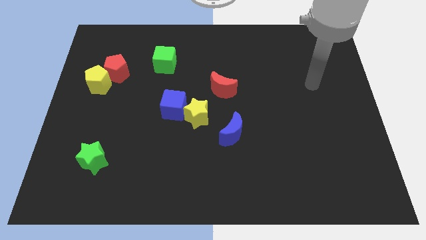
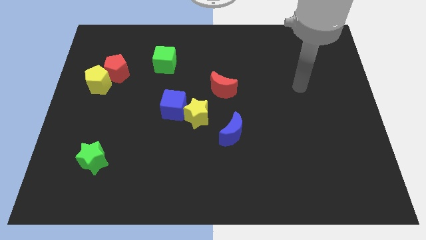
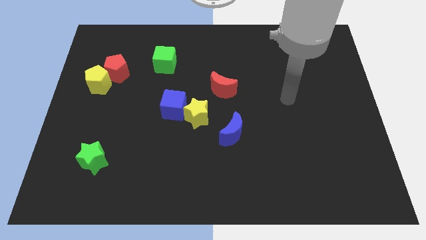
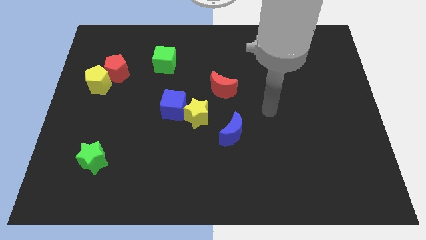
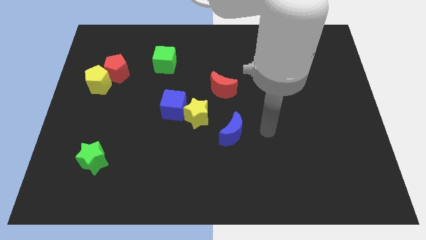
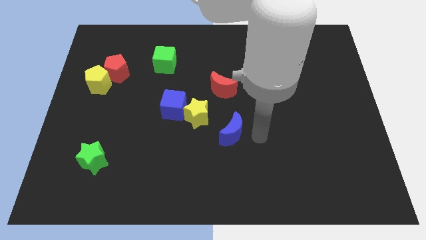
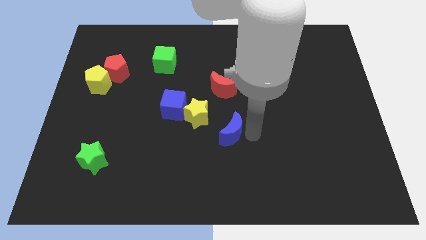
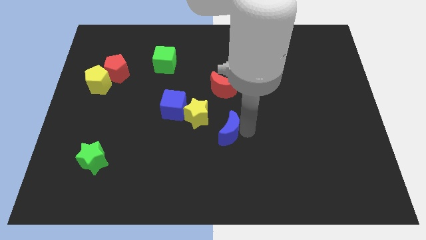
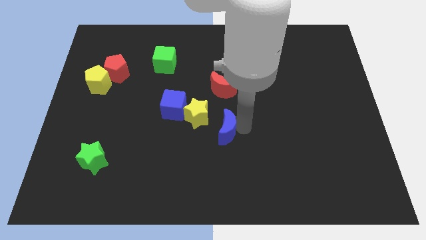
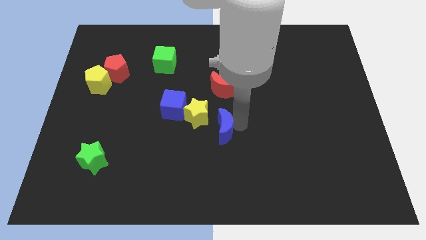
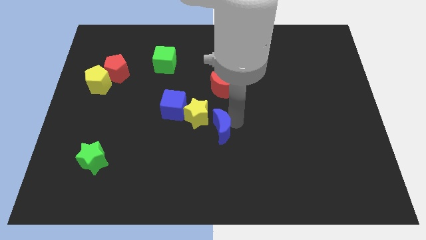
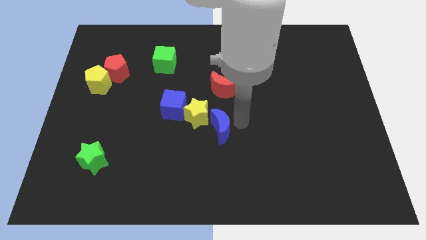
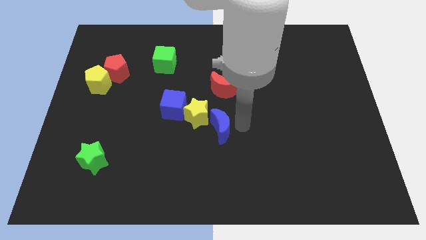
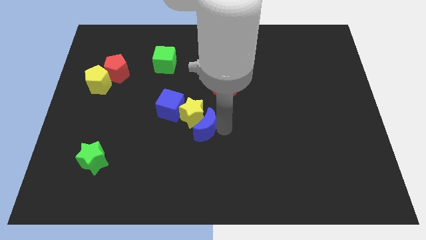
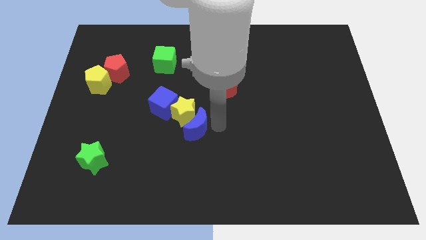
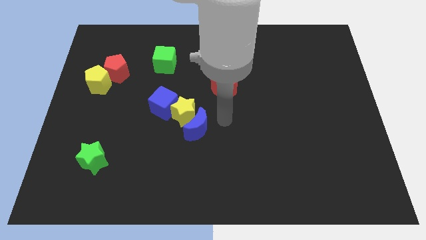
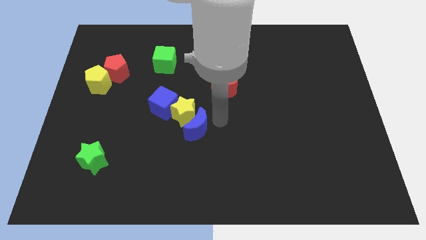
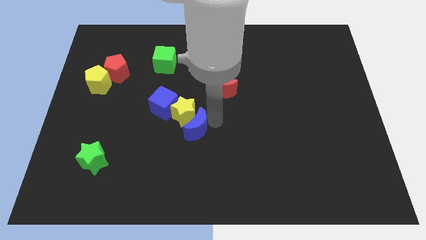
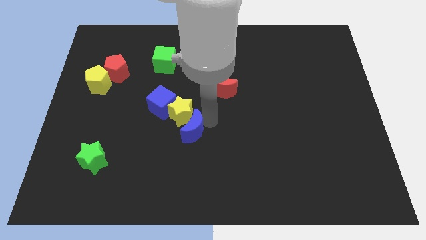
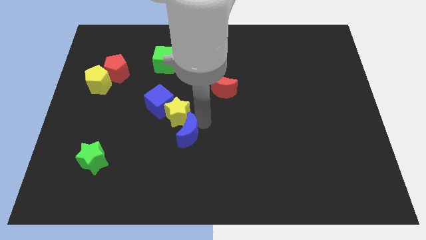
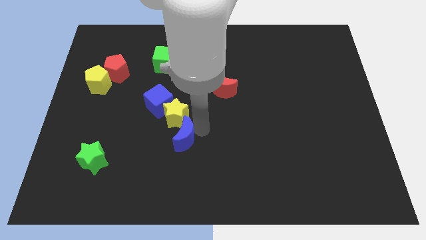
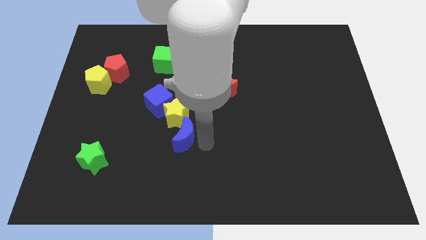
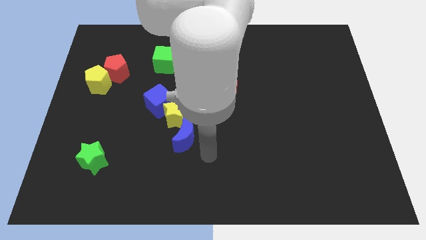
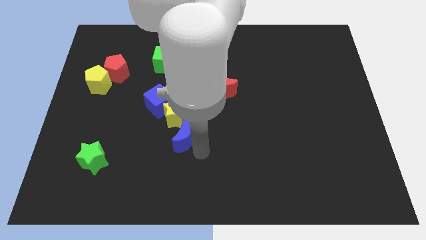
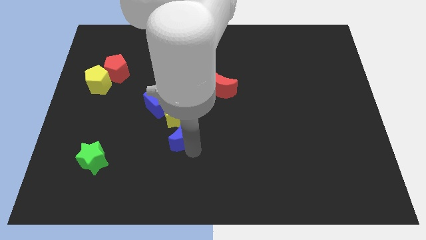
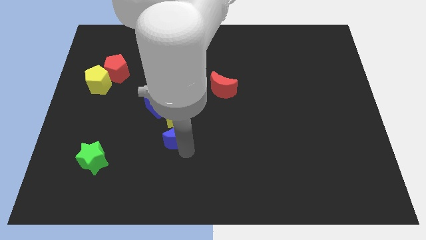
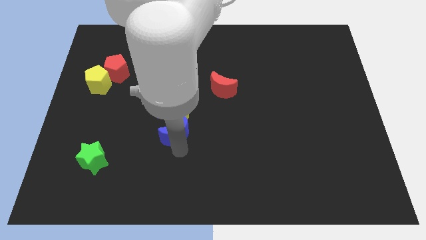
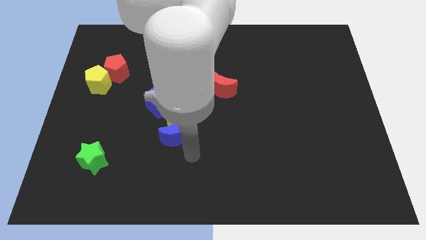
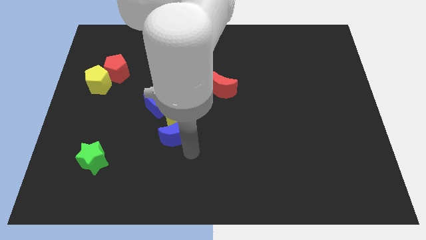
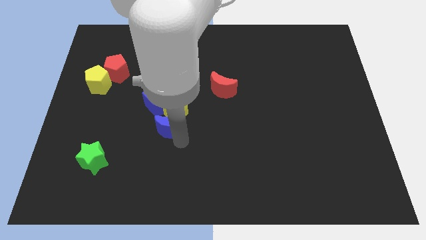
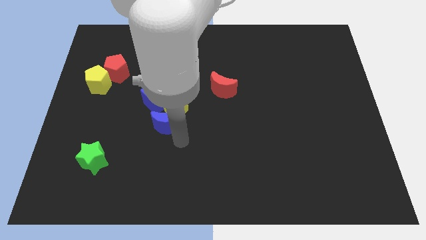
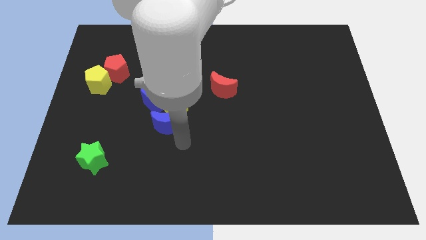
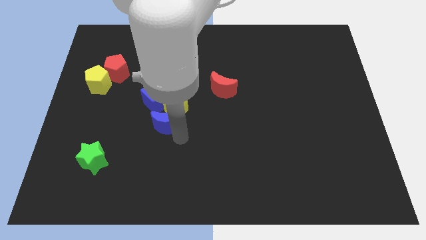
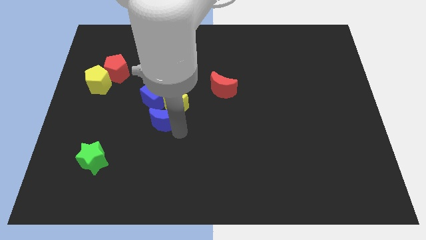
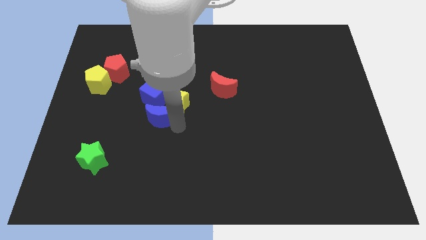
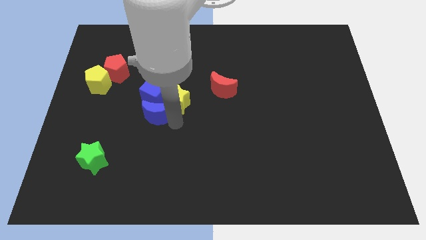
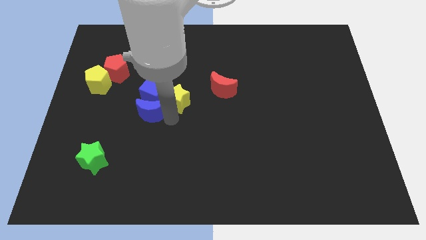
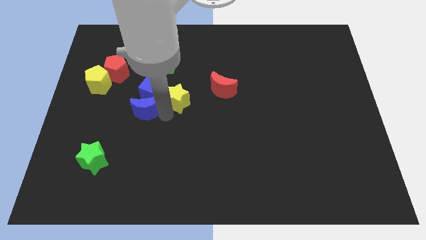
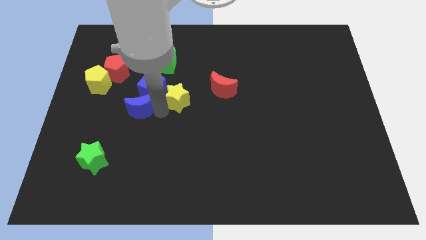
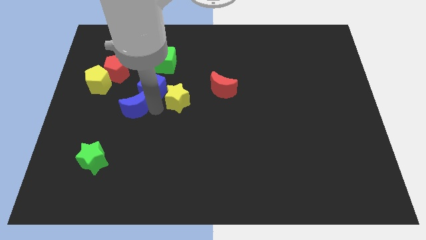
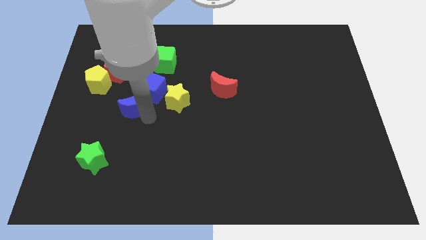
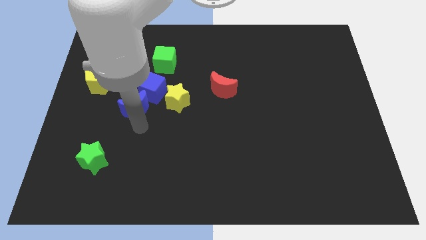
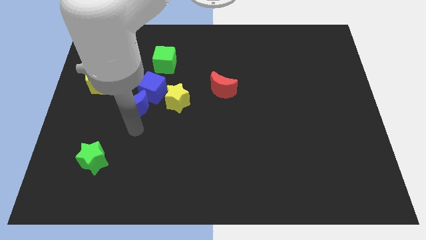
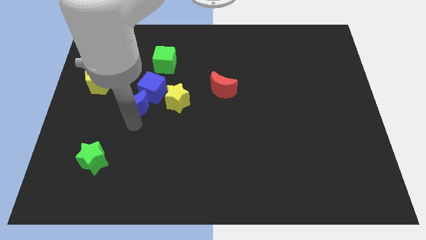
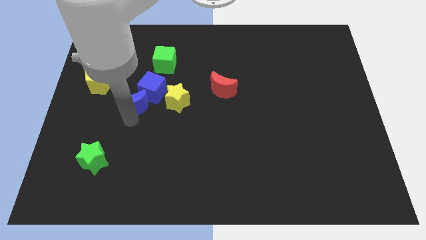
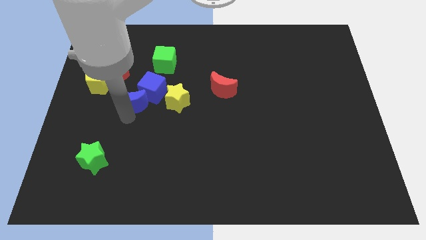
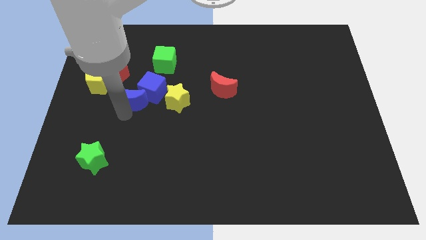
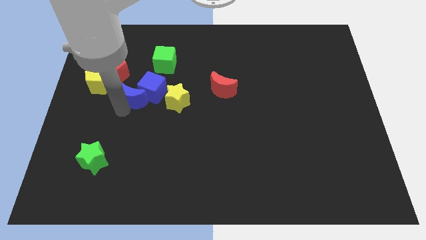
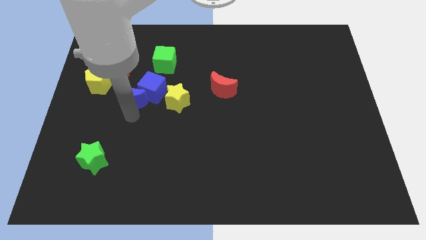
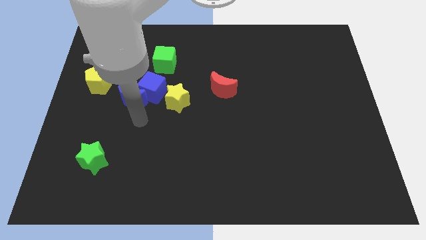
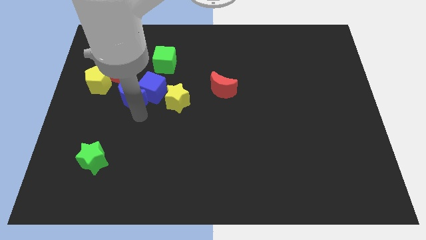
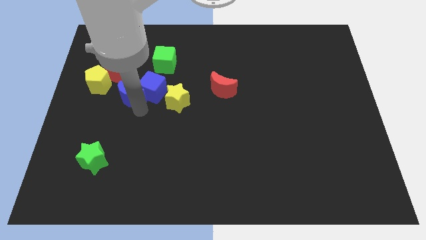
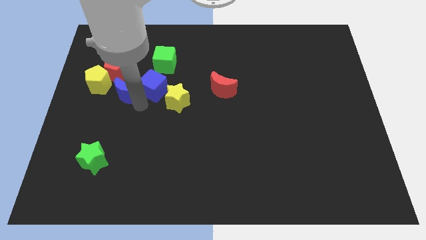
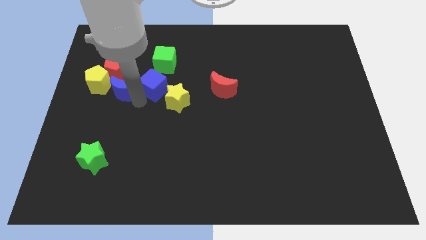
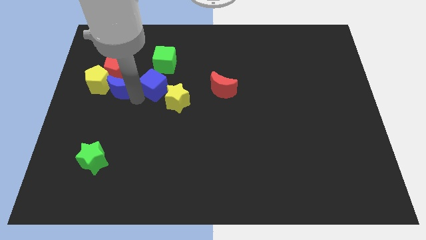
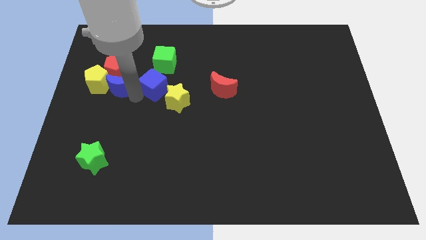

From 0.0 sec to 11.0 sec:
push the blue moon towards the red pentagon

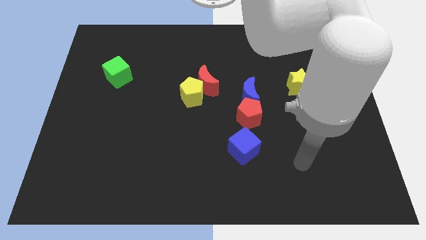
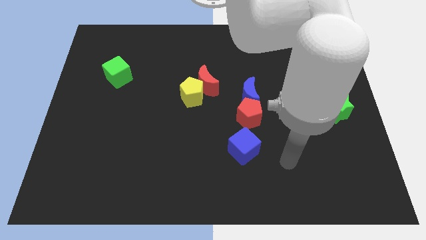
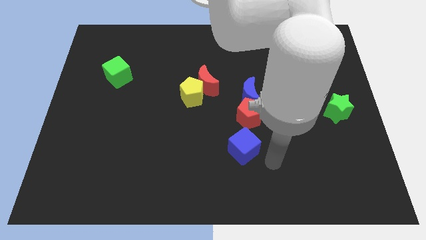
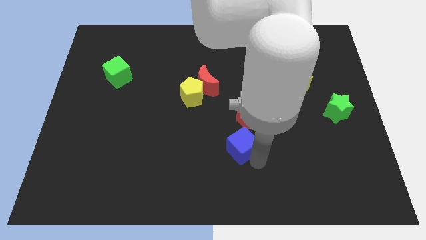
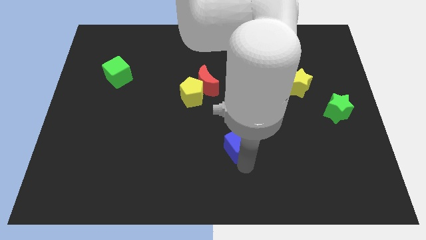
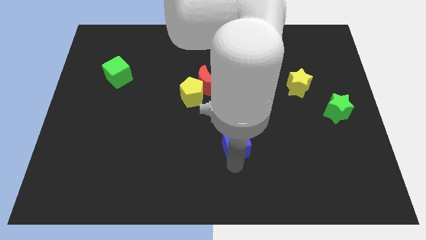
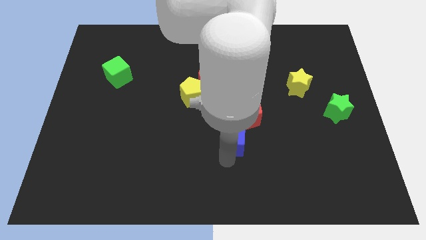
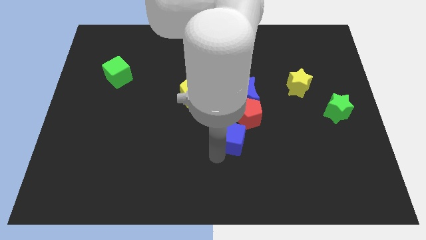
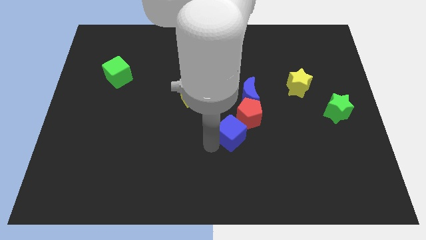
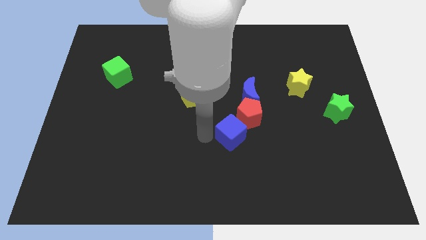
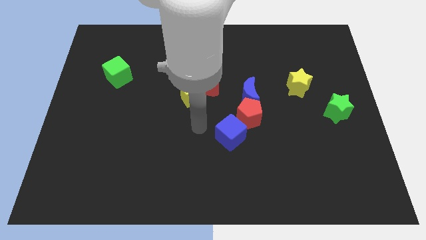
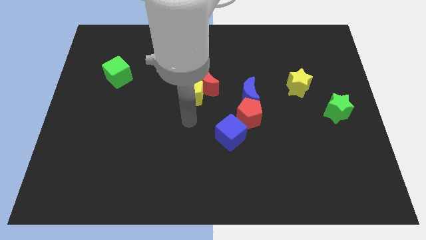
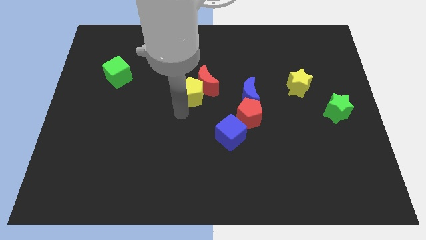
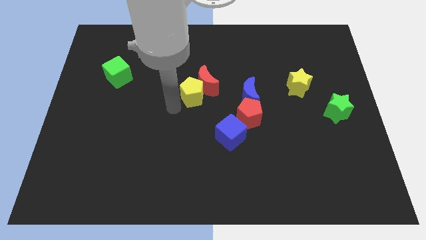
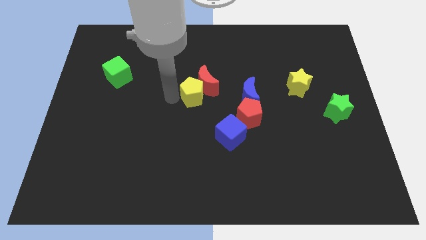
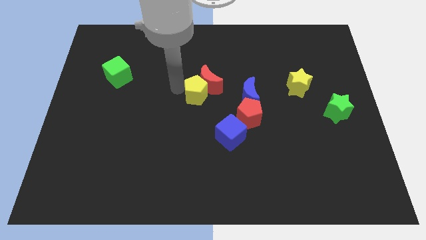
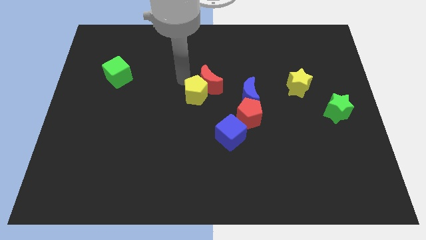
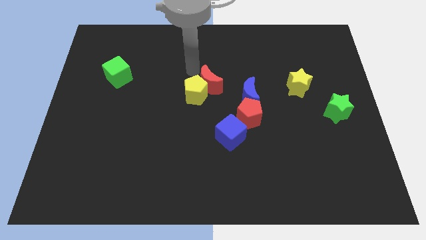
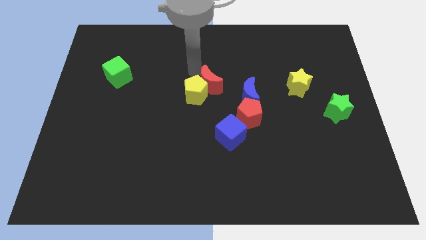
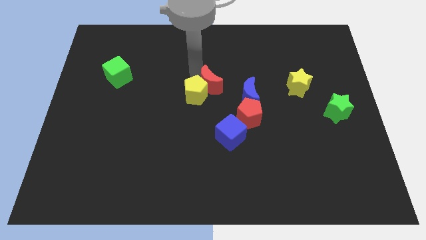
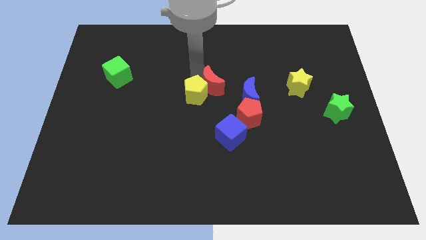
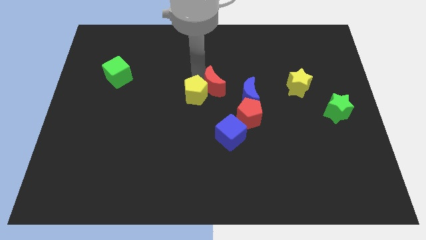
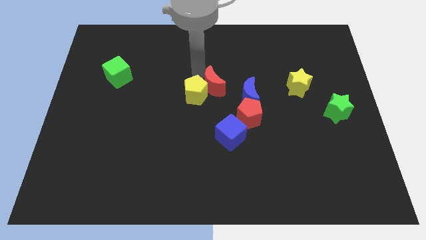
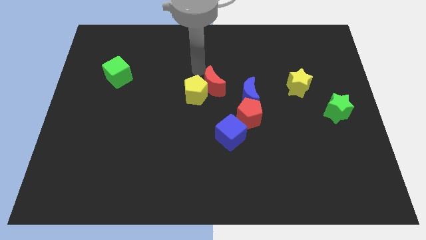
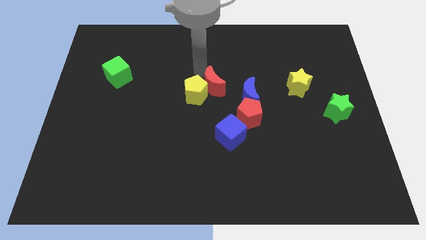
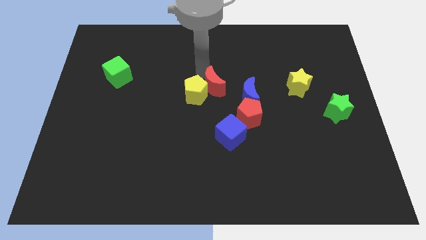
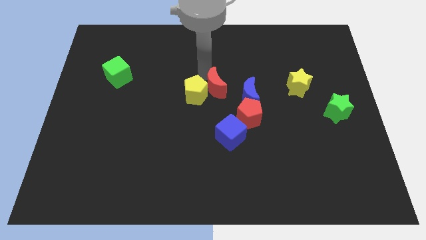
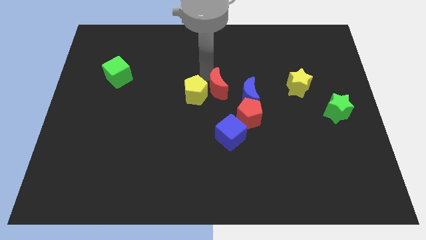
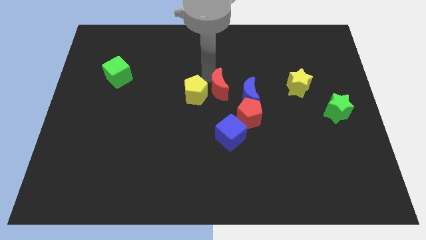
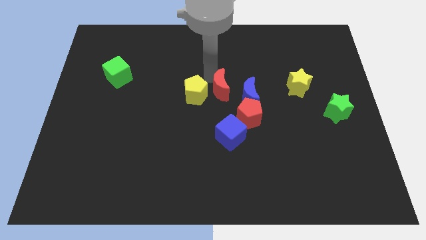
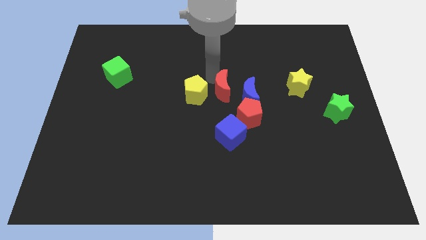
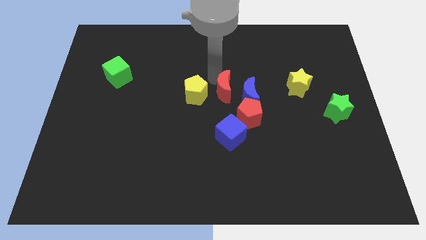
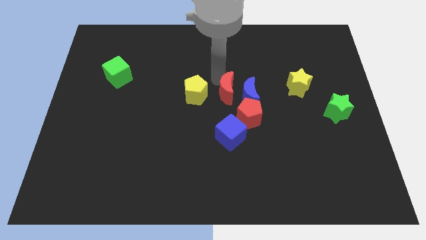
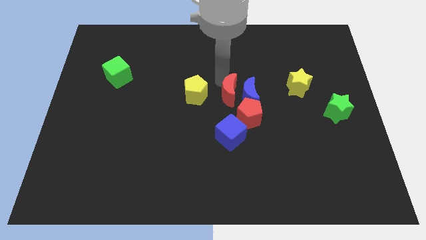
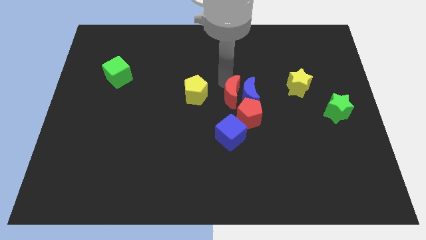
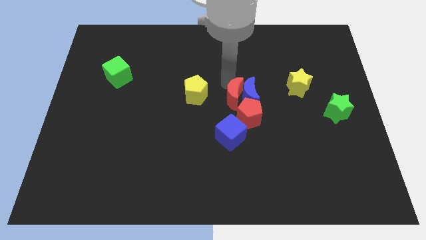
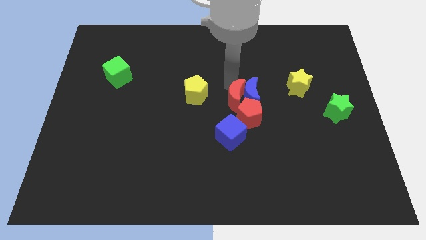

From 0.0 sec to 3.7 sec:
move the red moon towards the red pentagon
